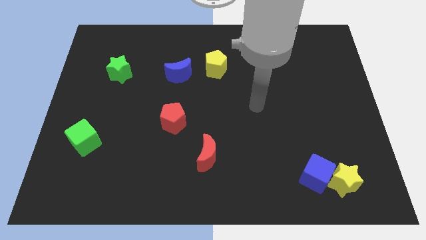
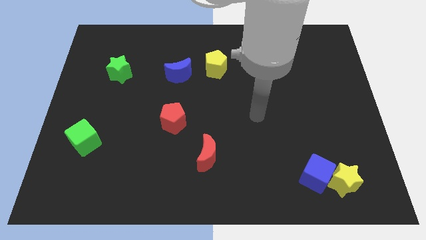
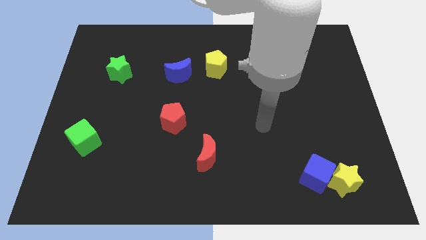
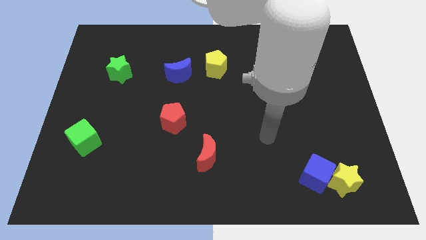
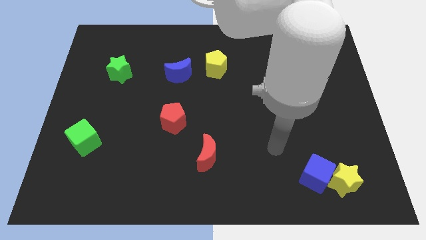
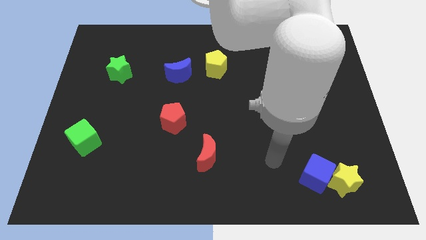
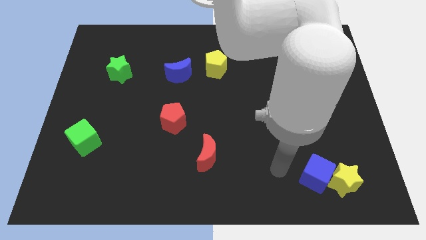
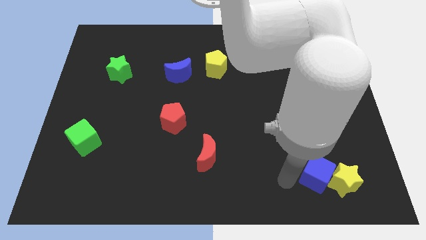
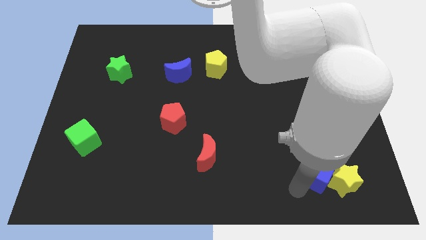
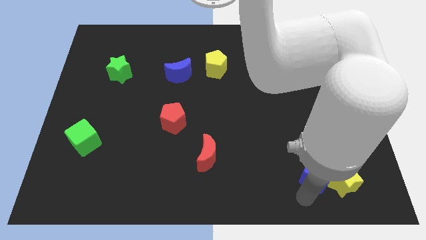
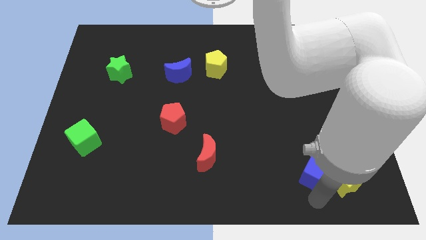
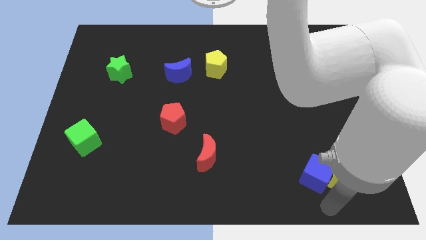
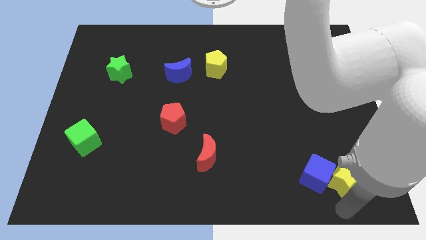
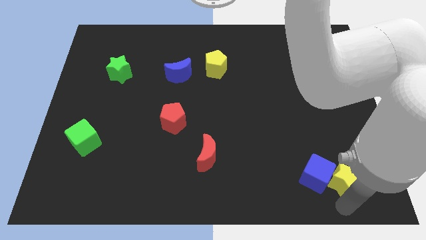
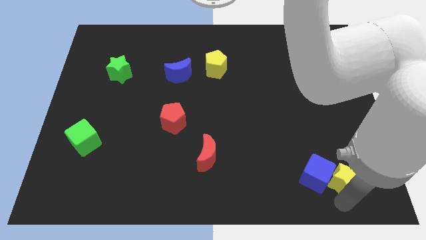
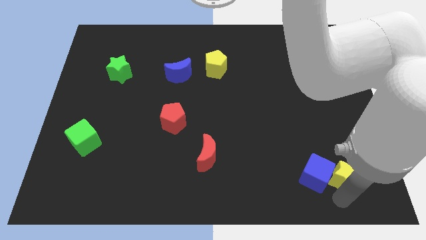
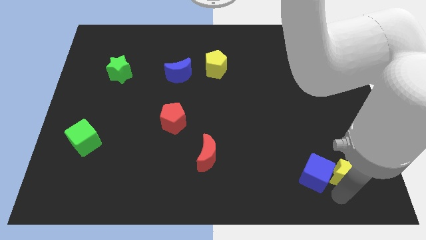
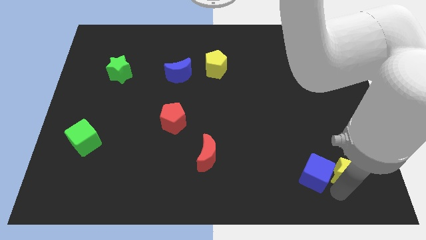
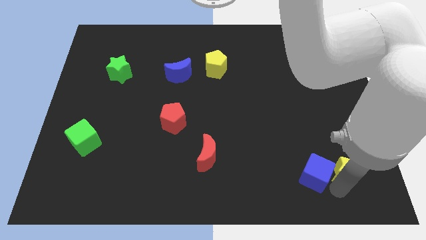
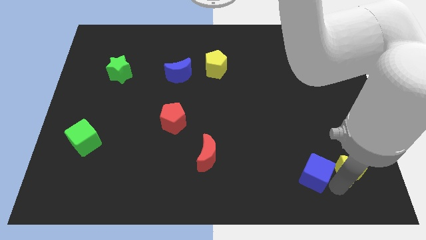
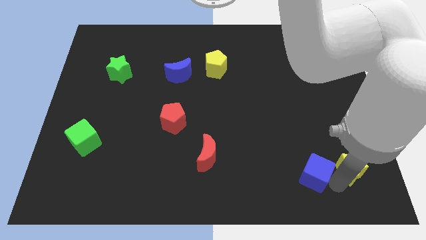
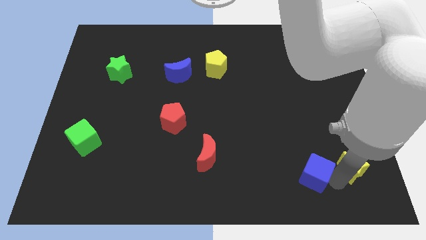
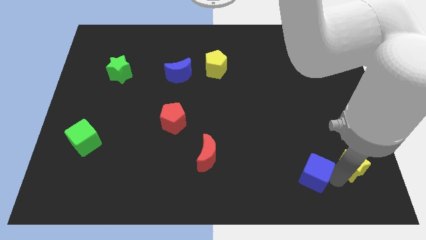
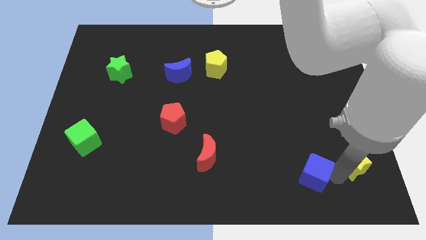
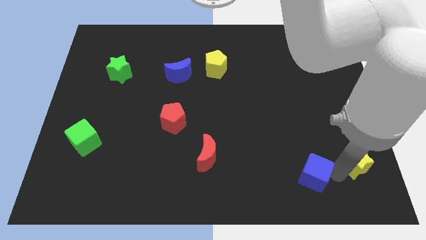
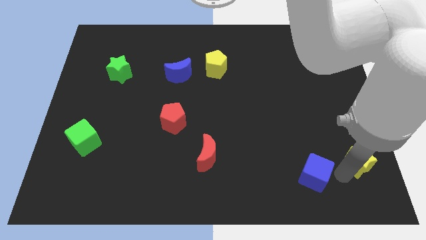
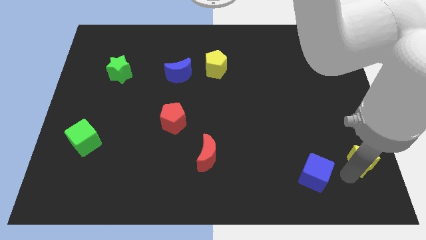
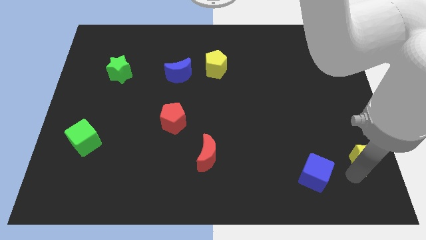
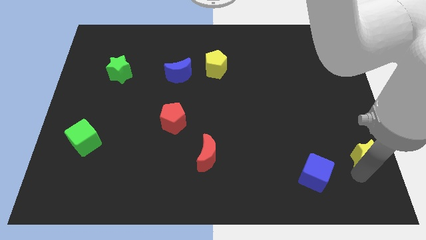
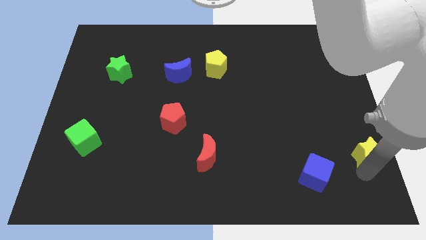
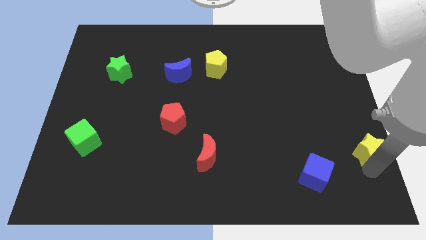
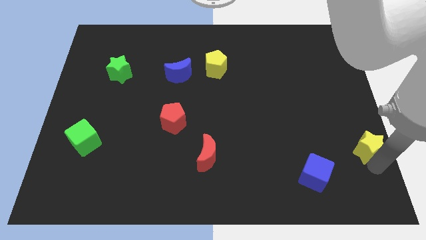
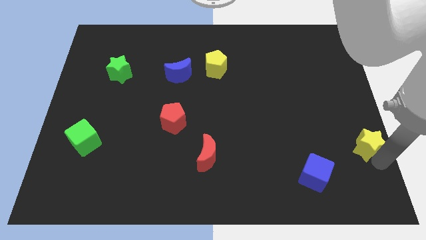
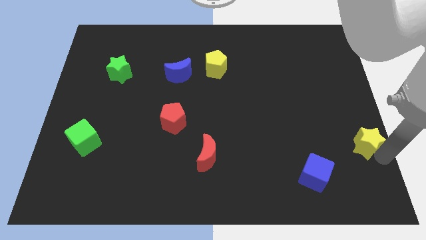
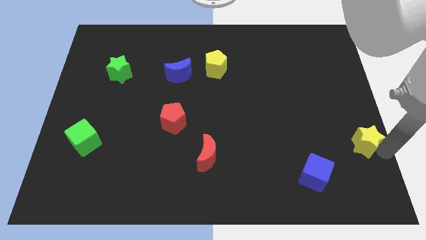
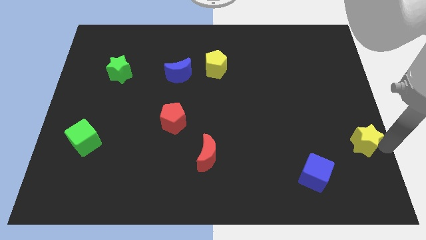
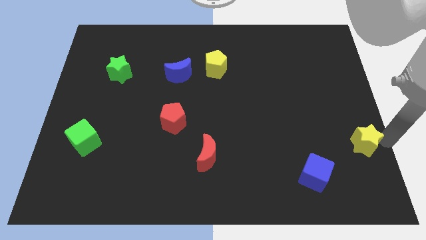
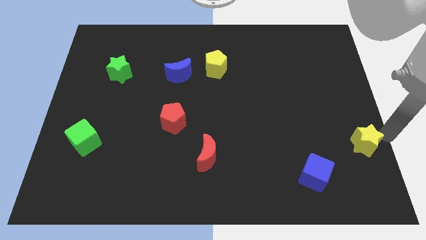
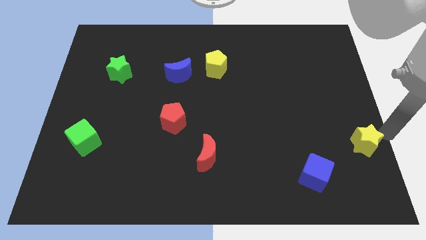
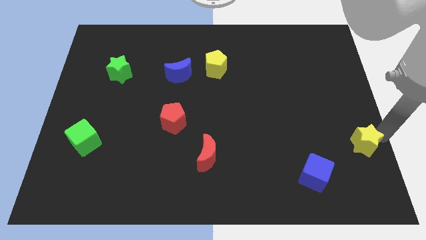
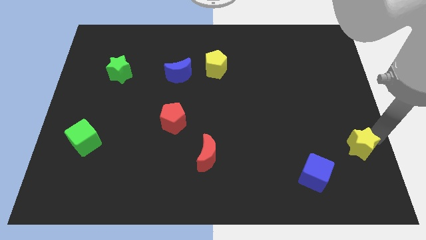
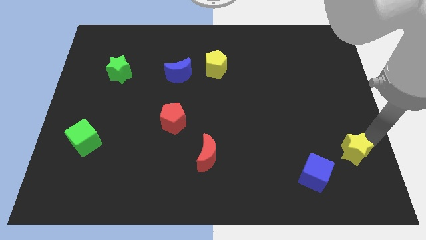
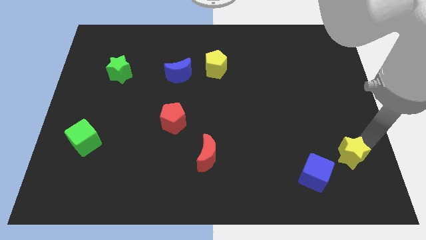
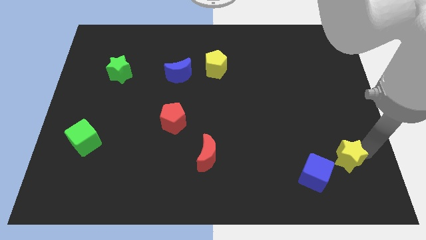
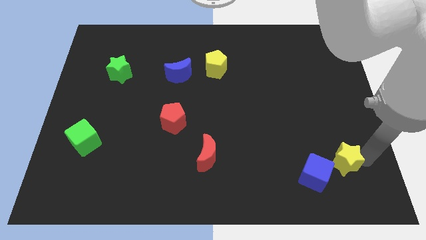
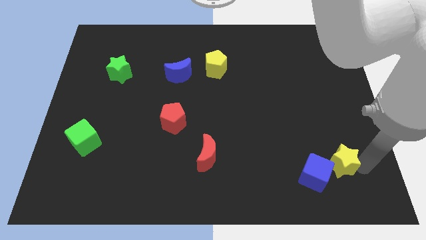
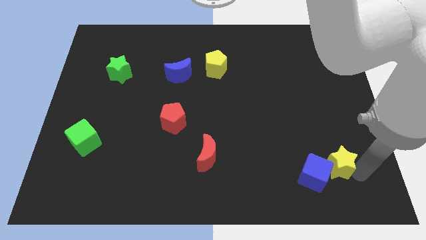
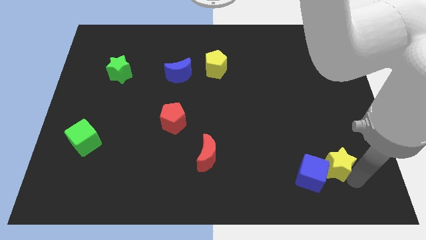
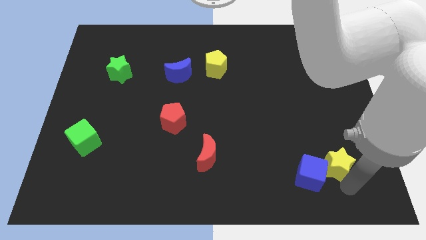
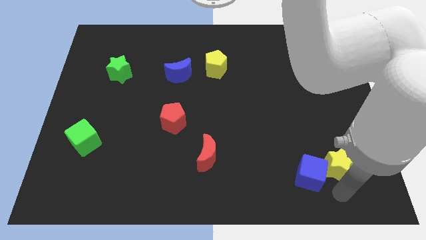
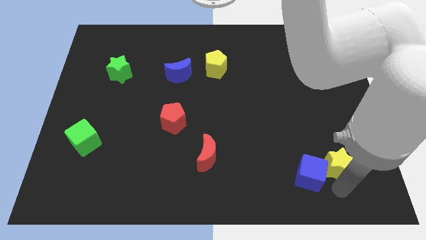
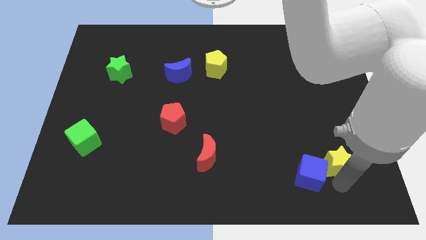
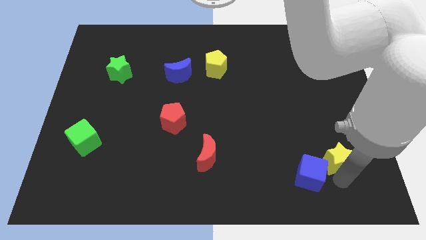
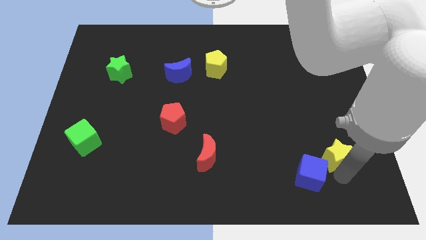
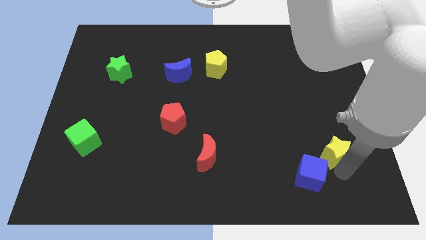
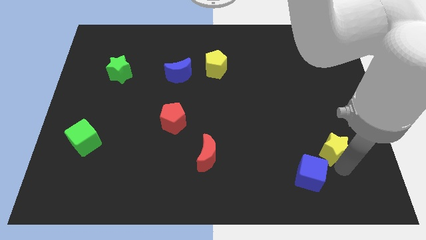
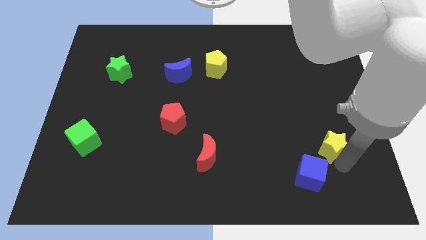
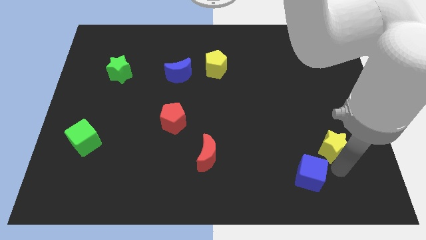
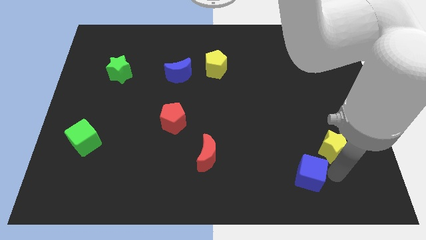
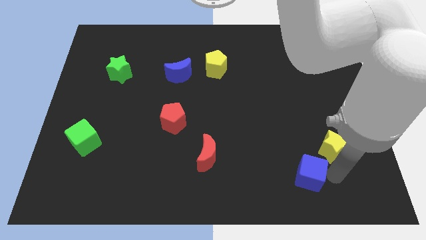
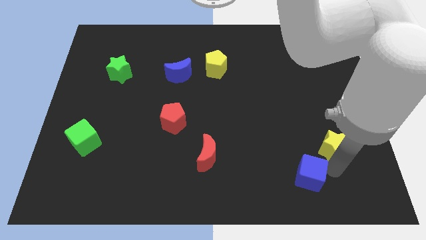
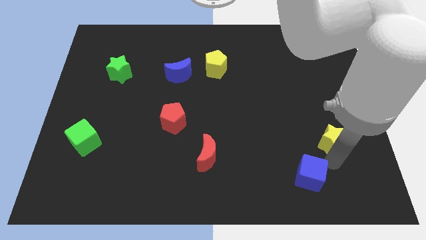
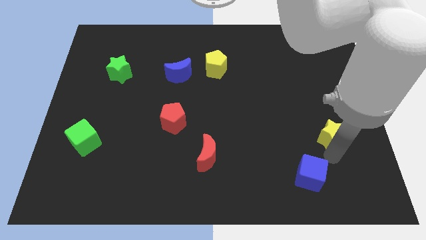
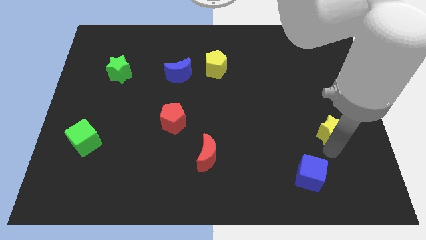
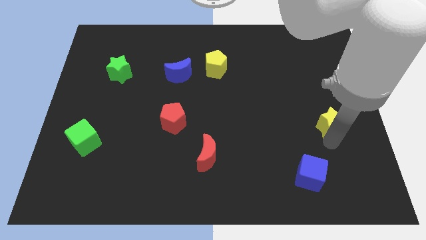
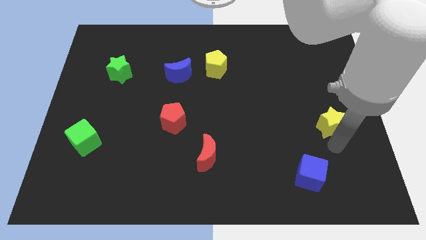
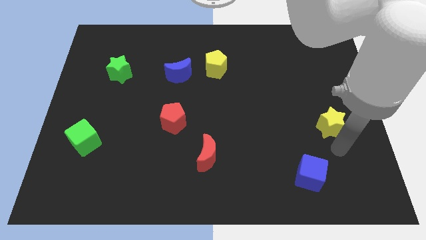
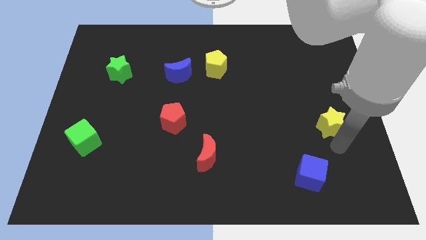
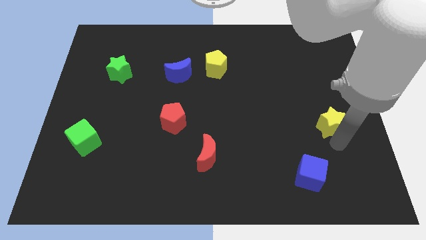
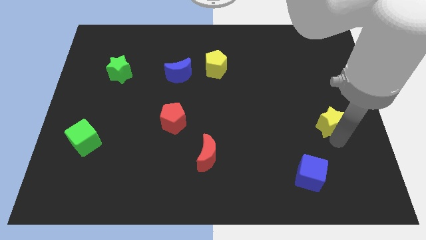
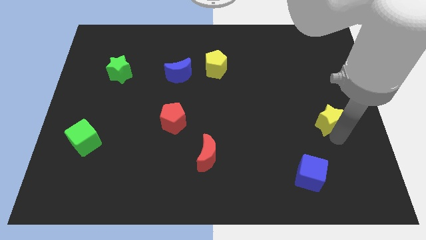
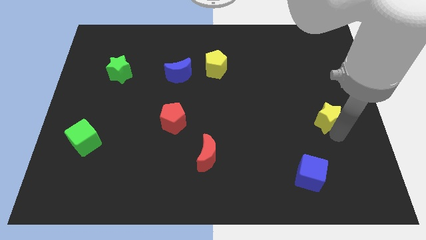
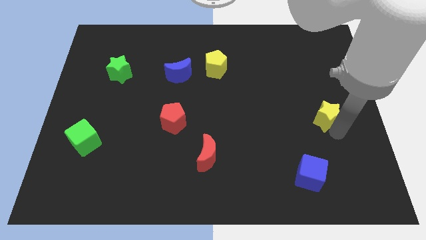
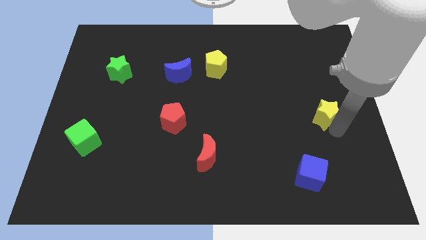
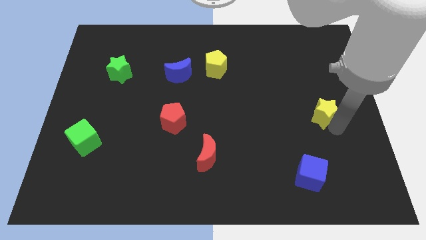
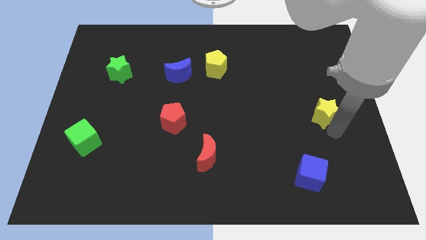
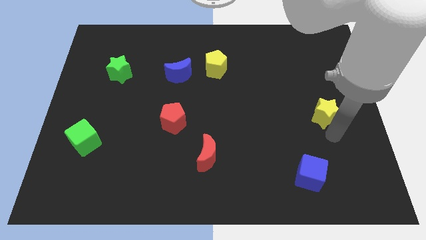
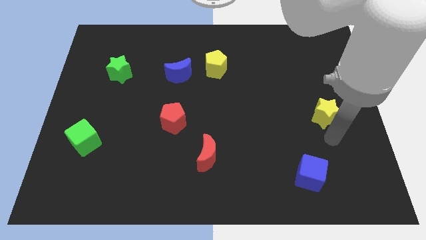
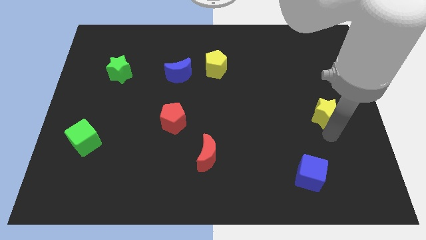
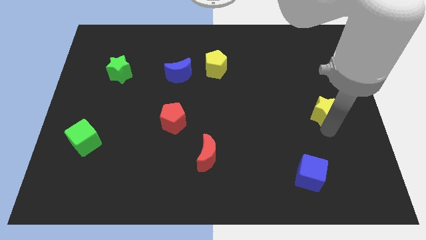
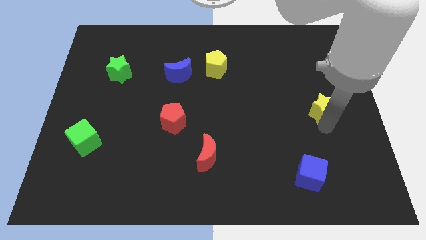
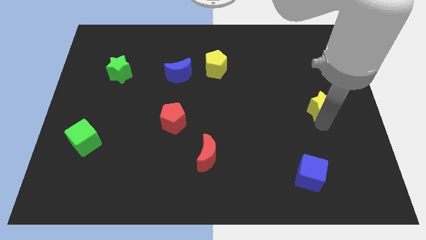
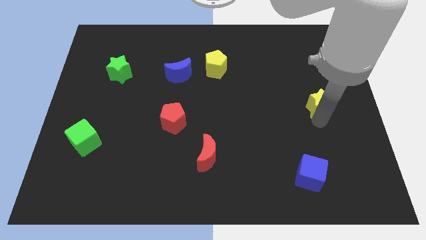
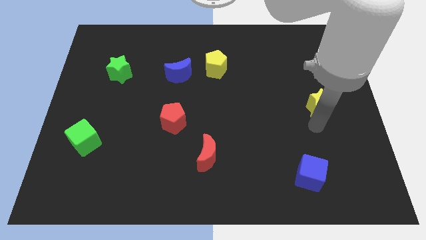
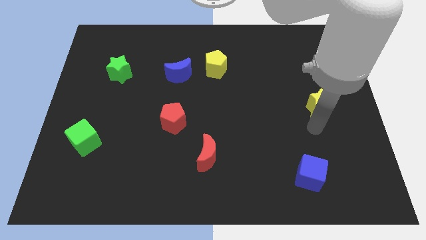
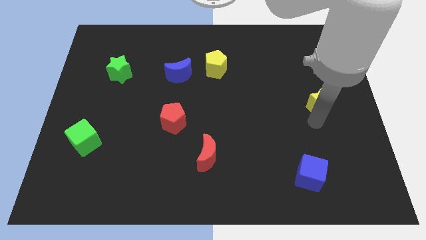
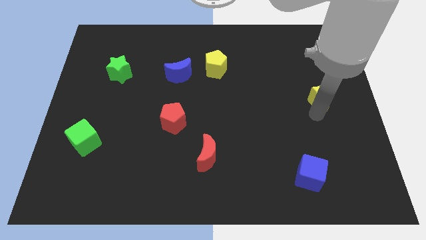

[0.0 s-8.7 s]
push the yellow star upwards
